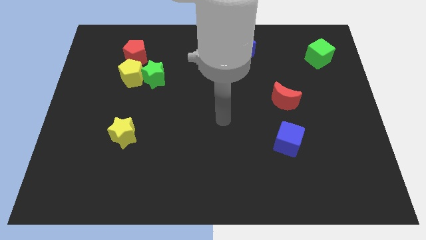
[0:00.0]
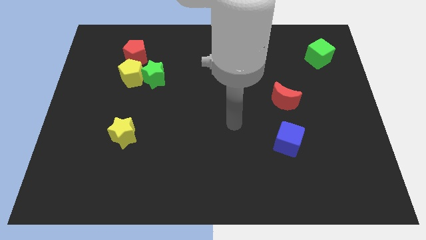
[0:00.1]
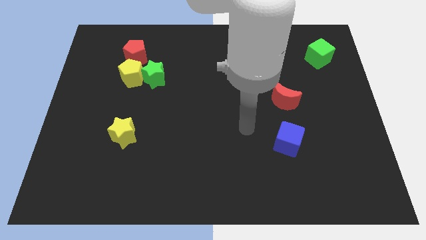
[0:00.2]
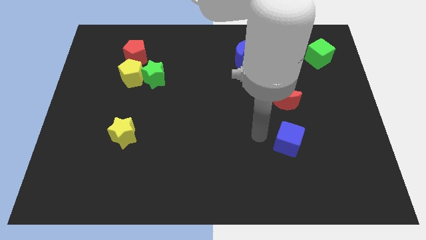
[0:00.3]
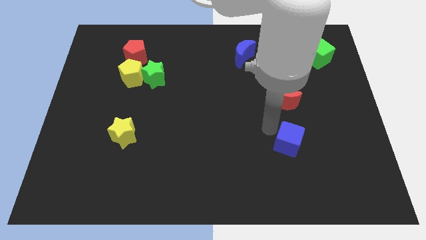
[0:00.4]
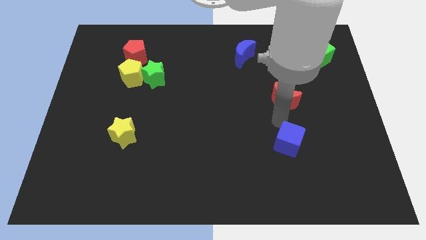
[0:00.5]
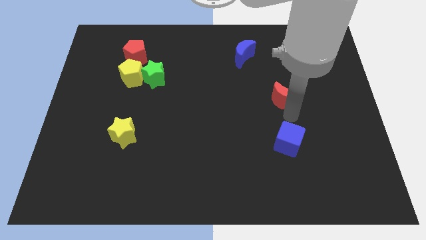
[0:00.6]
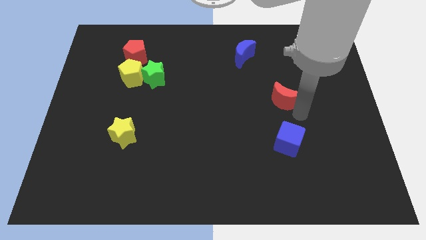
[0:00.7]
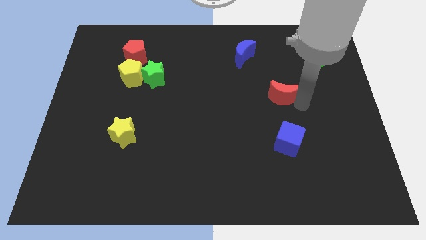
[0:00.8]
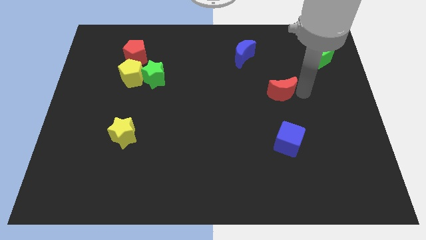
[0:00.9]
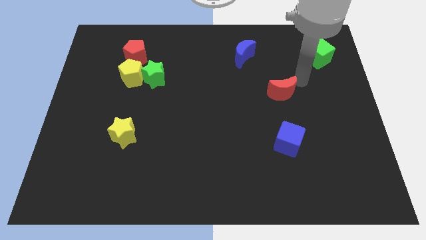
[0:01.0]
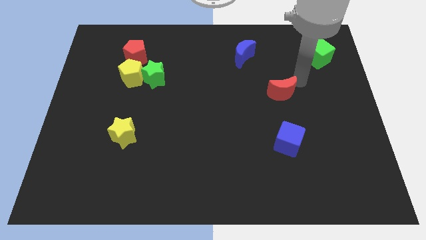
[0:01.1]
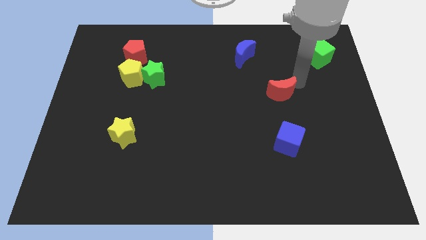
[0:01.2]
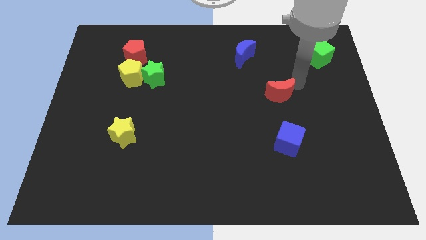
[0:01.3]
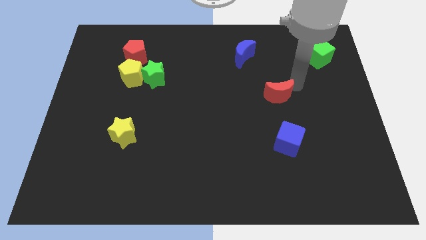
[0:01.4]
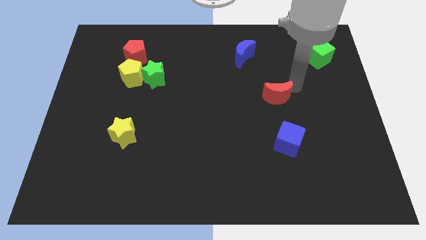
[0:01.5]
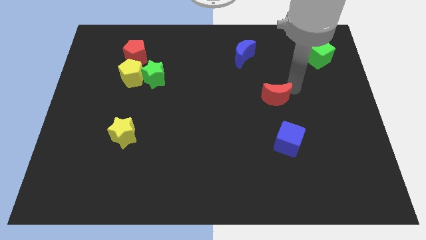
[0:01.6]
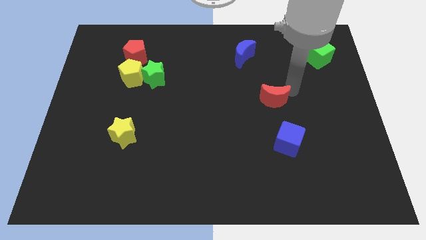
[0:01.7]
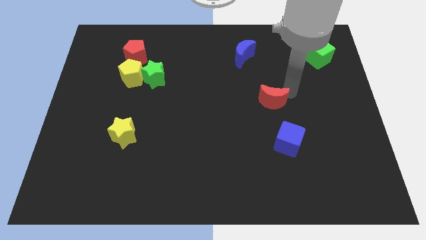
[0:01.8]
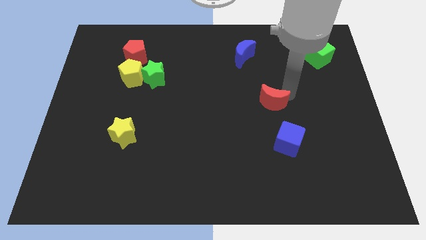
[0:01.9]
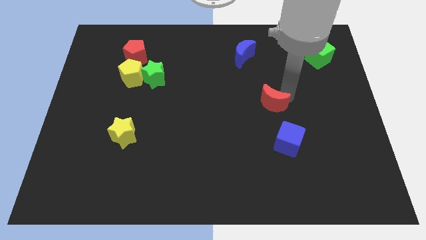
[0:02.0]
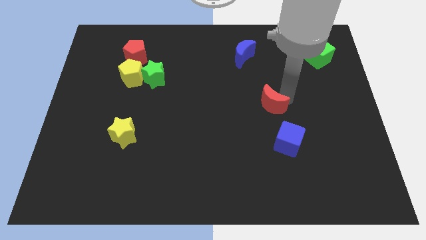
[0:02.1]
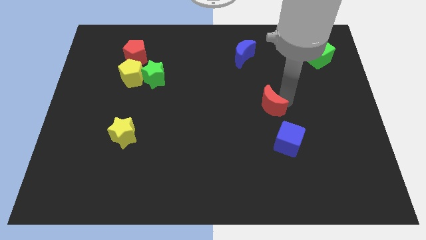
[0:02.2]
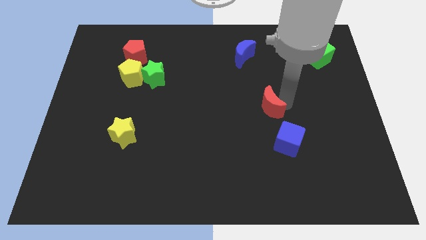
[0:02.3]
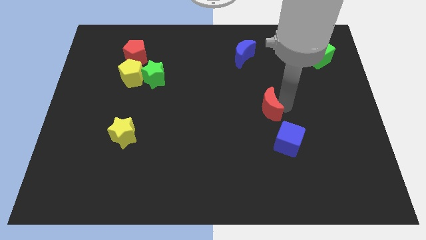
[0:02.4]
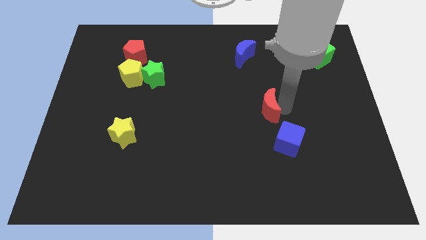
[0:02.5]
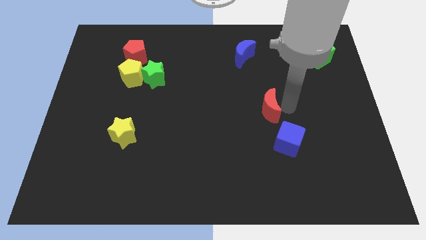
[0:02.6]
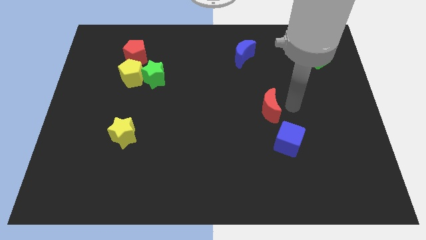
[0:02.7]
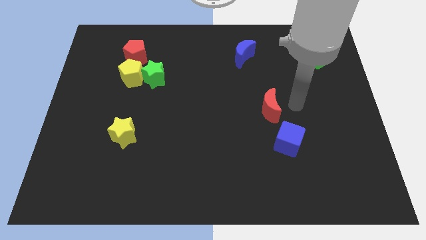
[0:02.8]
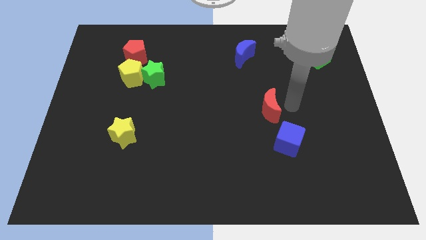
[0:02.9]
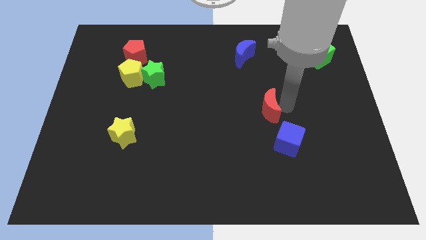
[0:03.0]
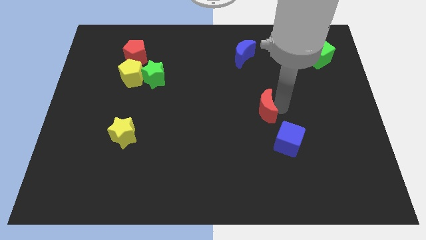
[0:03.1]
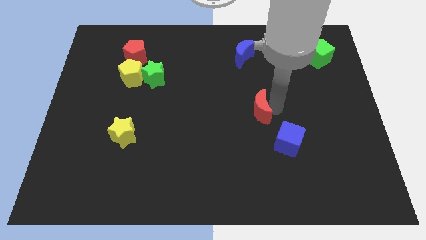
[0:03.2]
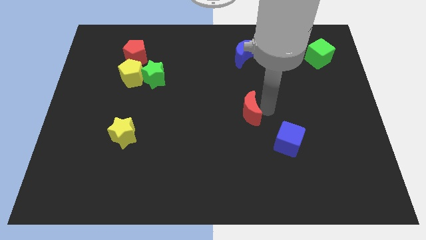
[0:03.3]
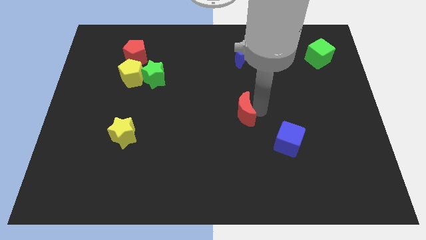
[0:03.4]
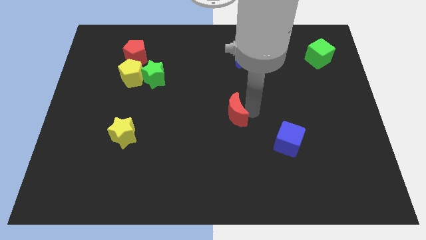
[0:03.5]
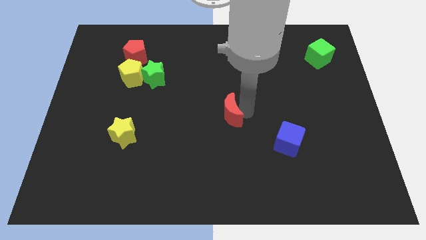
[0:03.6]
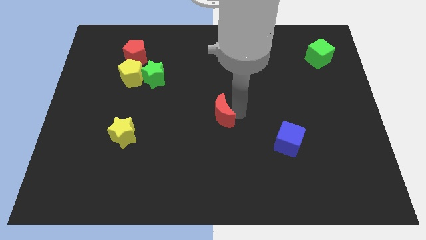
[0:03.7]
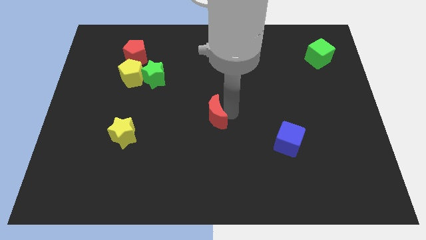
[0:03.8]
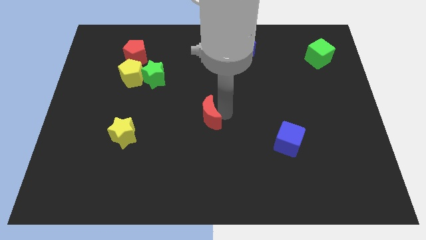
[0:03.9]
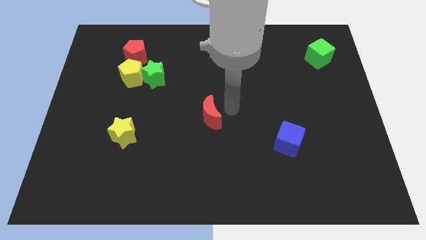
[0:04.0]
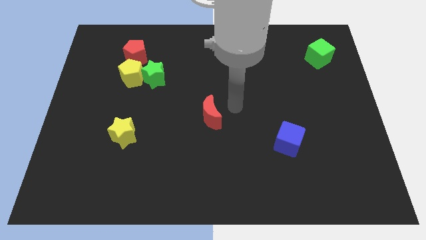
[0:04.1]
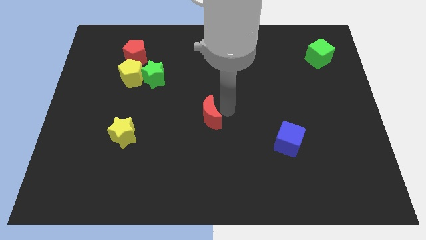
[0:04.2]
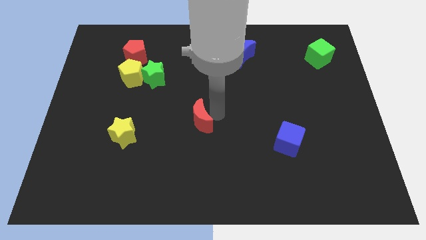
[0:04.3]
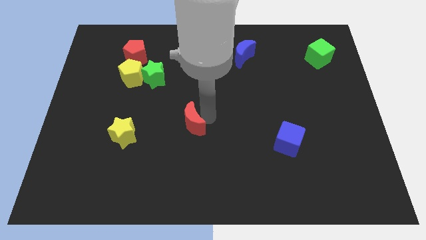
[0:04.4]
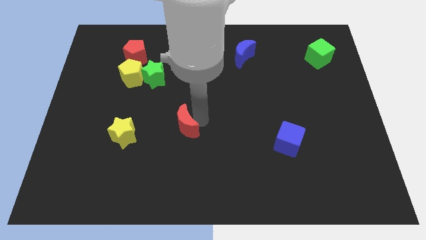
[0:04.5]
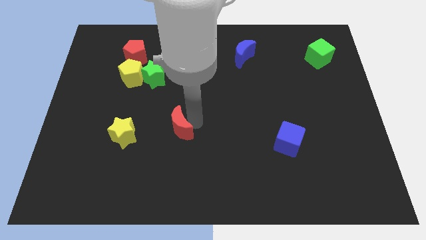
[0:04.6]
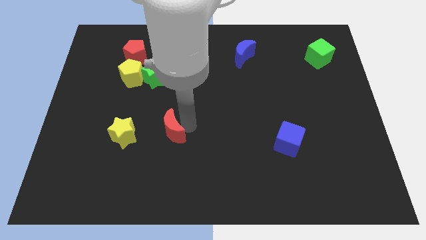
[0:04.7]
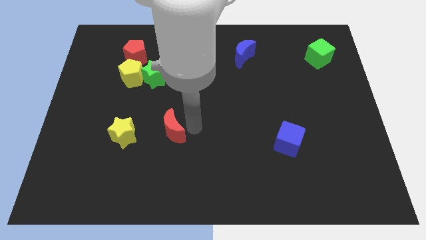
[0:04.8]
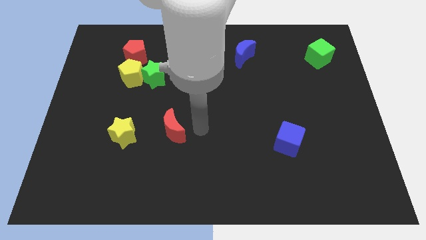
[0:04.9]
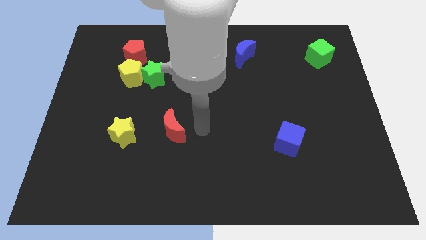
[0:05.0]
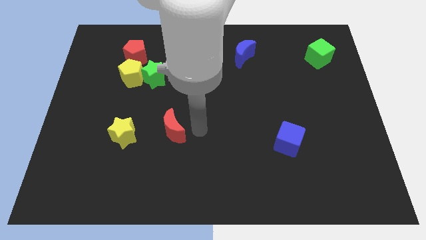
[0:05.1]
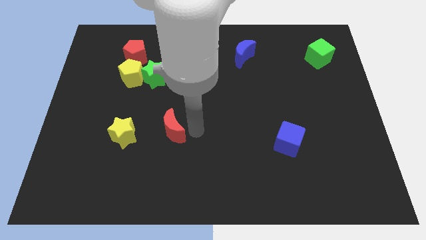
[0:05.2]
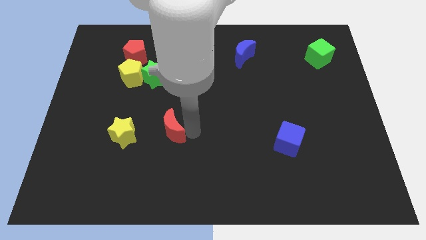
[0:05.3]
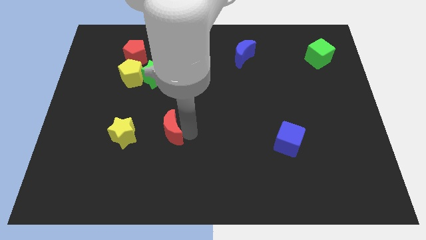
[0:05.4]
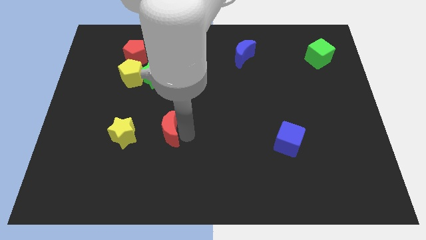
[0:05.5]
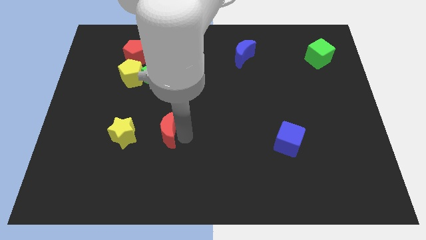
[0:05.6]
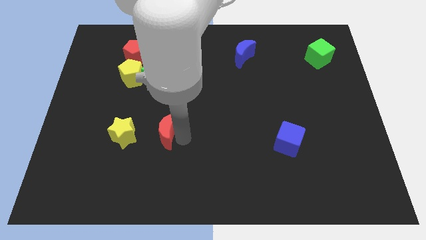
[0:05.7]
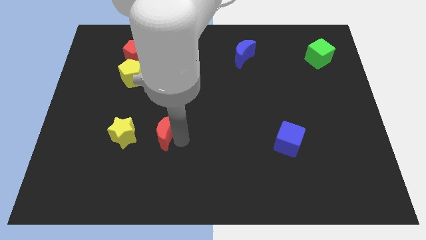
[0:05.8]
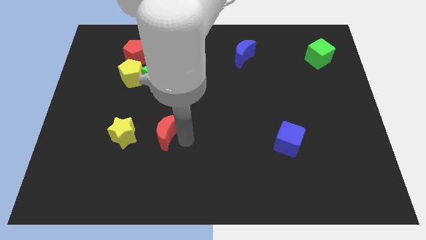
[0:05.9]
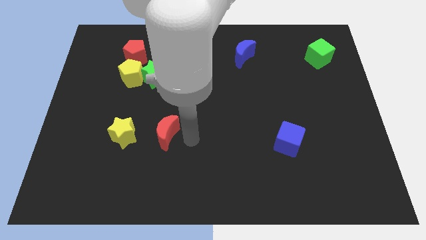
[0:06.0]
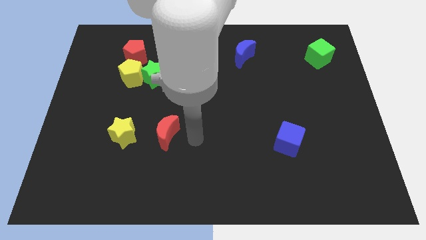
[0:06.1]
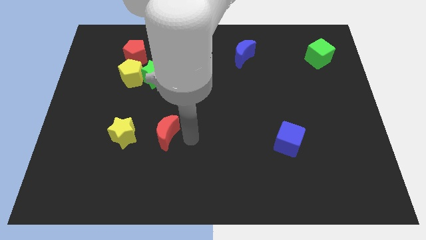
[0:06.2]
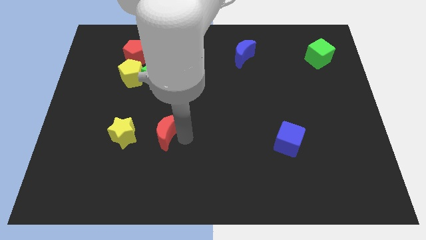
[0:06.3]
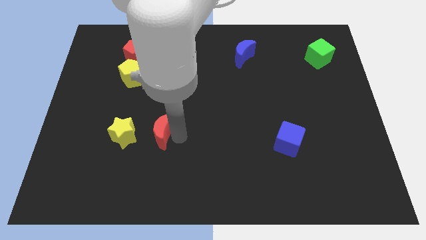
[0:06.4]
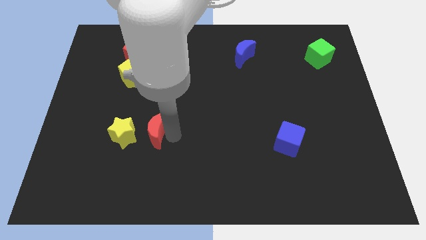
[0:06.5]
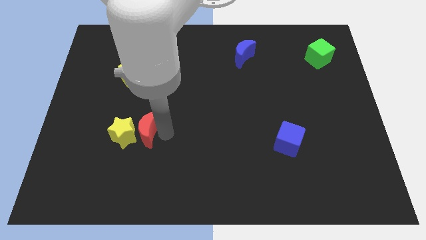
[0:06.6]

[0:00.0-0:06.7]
put the red moon towards the yellow star
